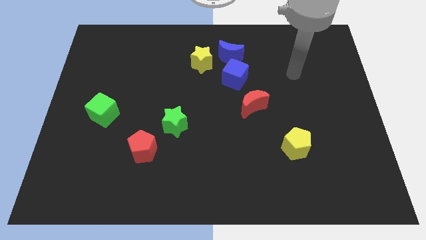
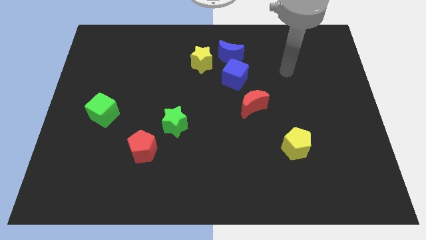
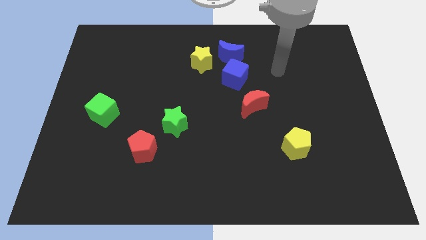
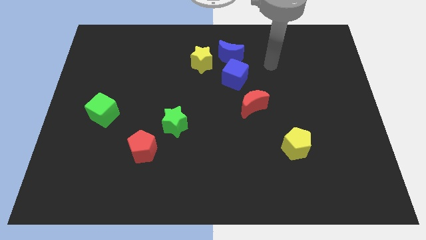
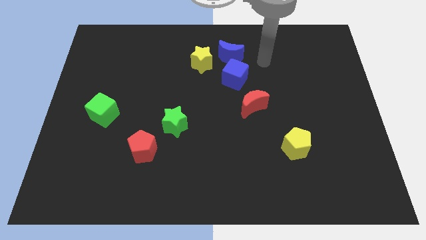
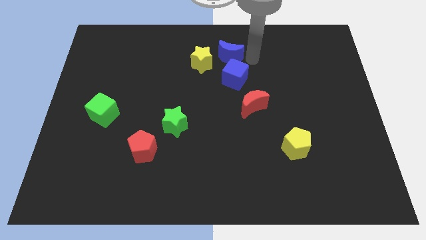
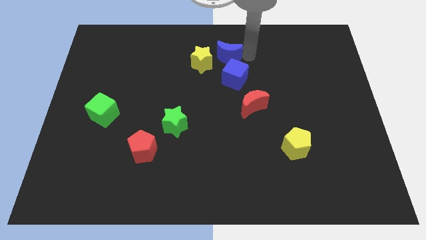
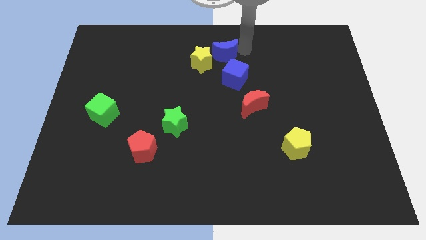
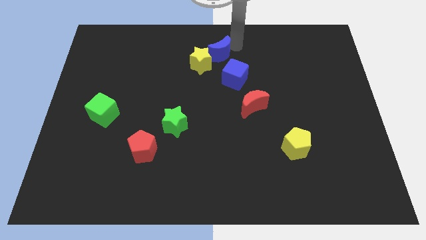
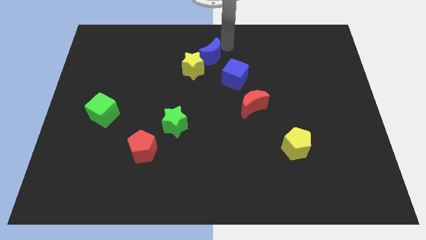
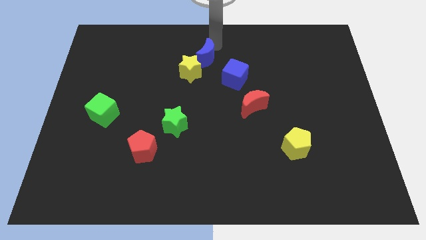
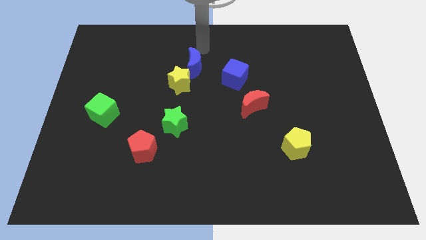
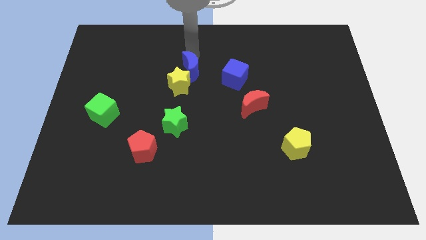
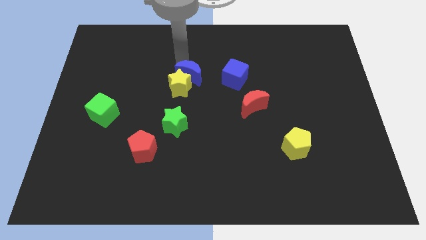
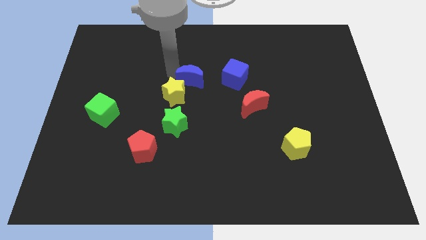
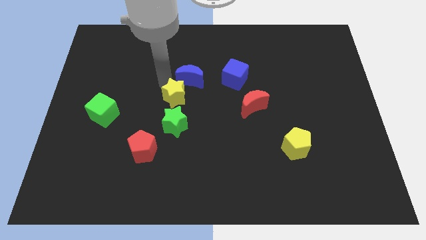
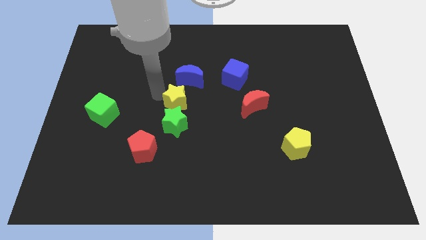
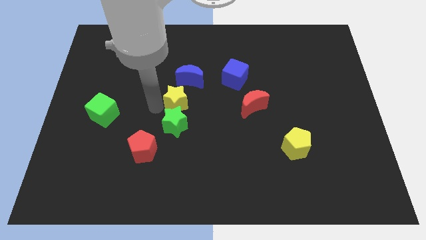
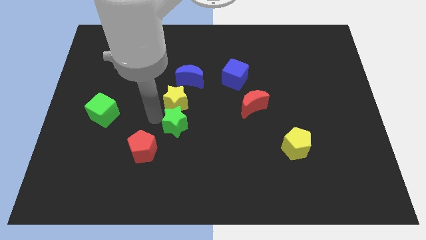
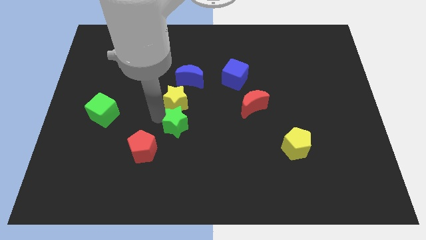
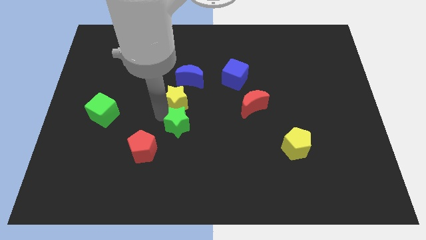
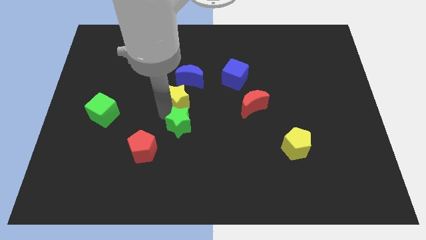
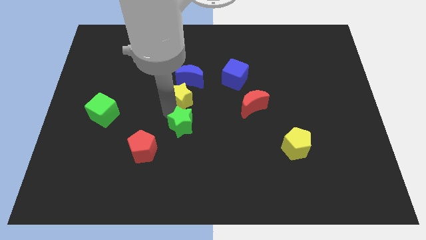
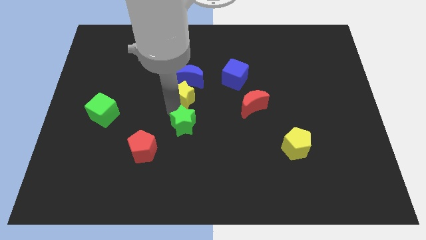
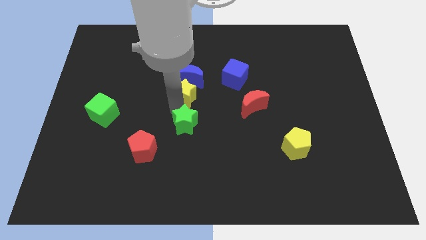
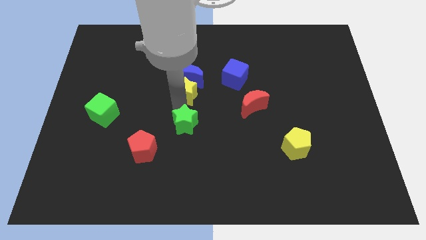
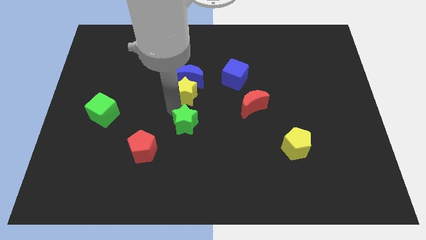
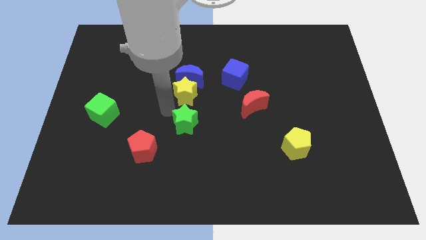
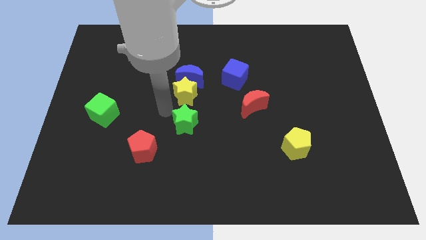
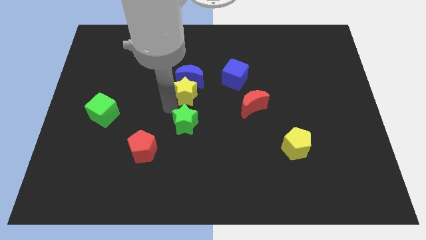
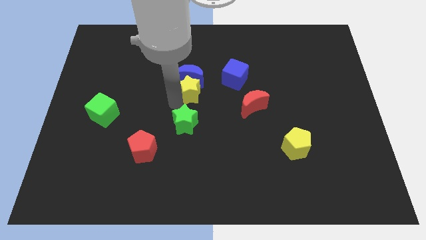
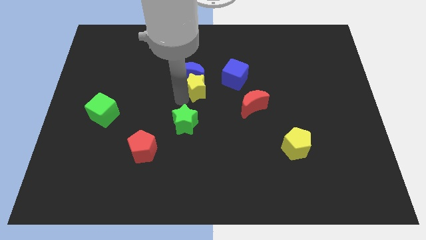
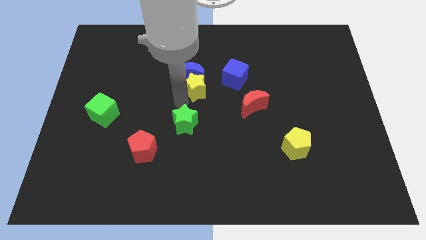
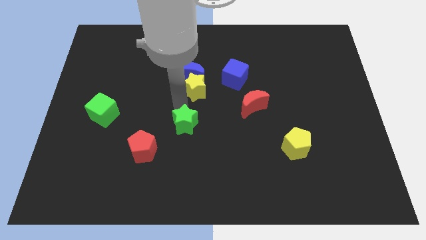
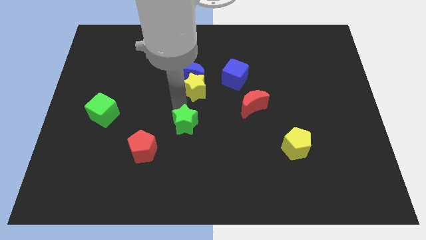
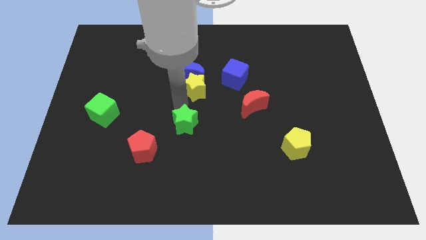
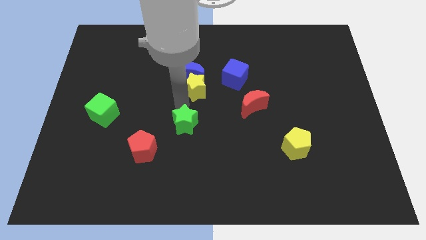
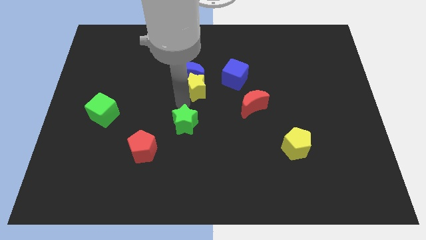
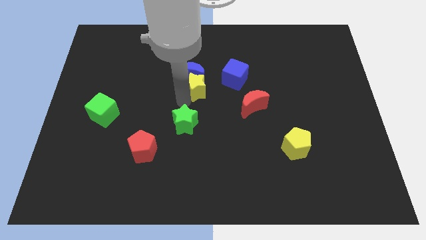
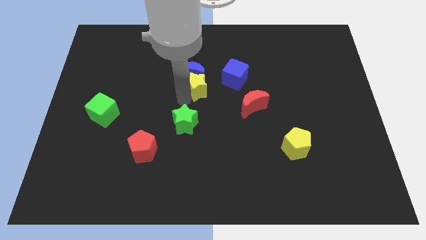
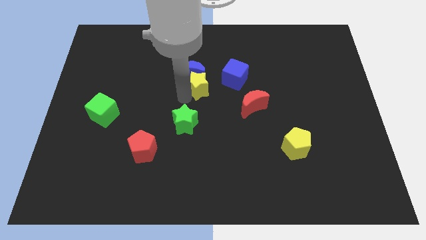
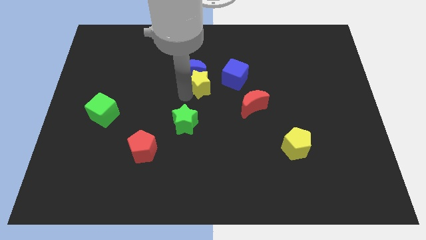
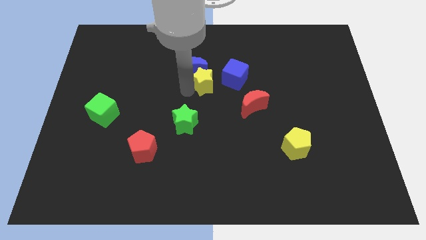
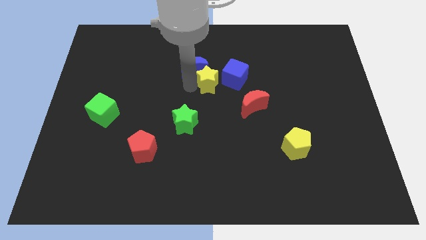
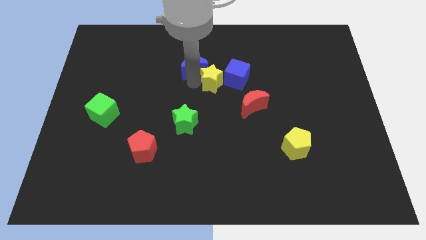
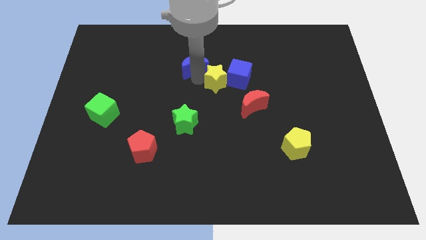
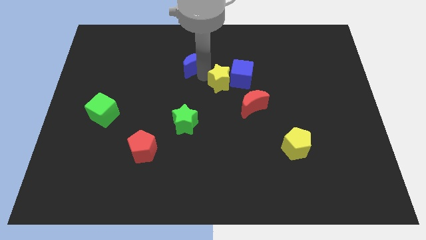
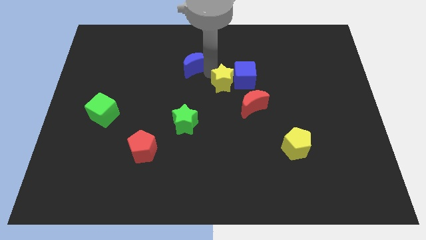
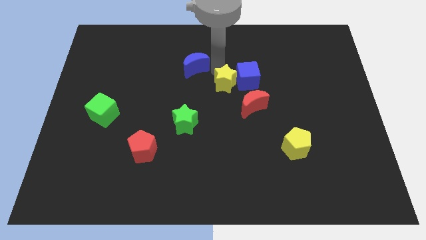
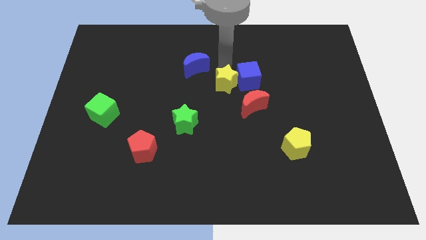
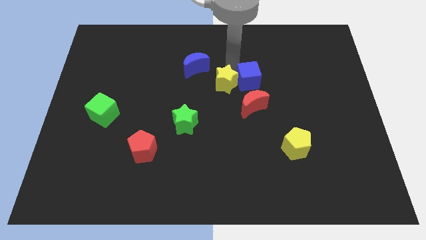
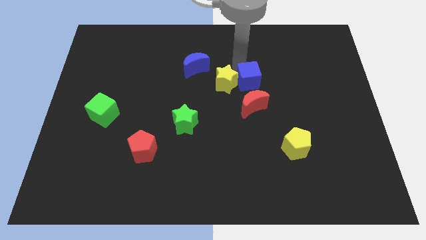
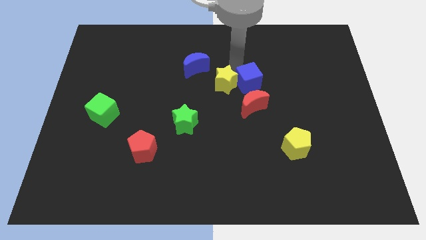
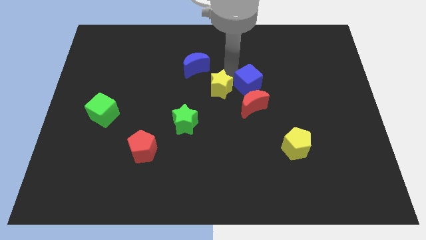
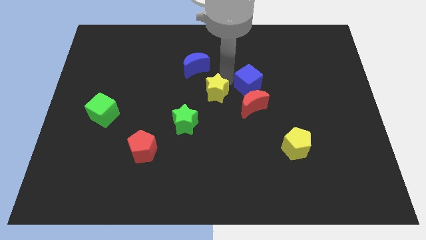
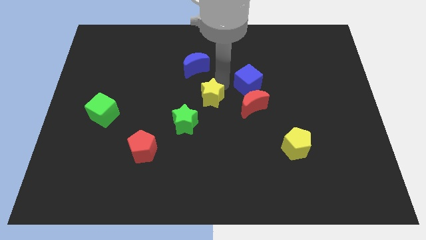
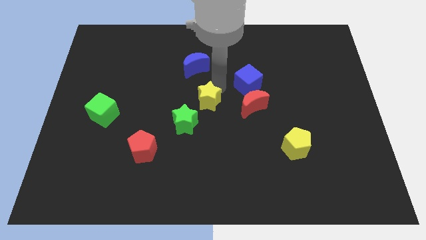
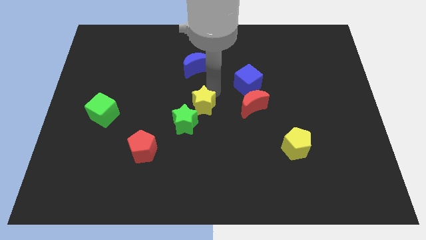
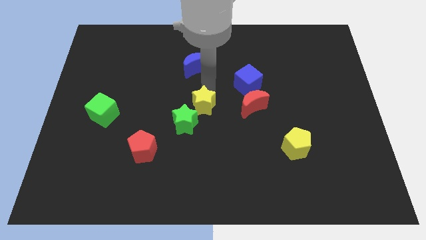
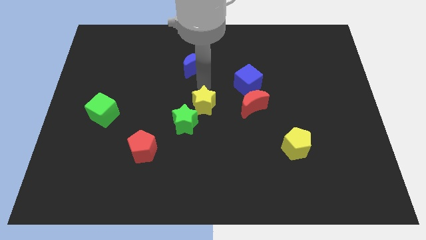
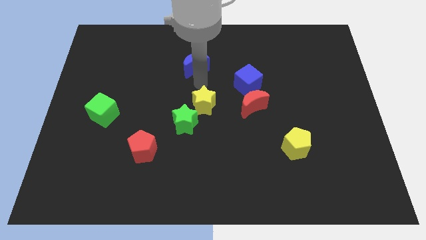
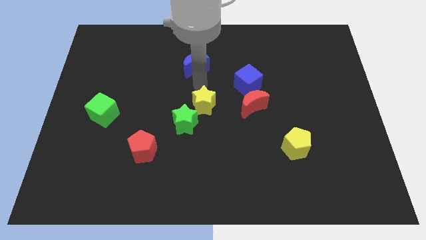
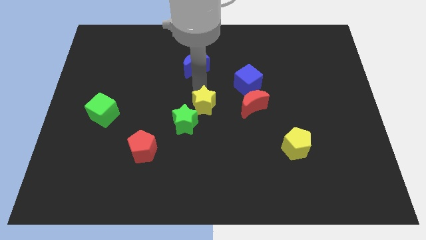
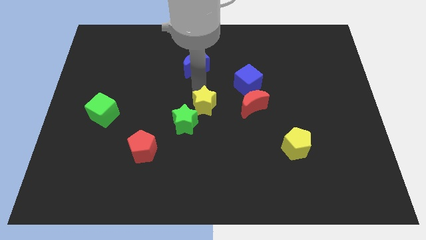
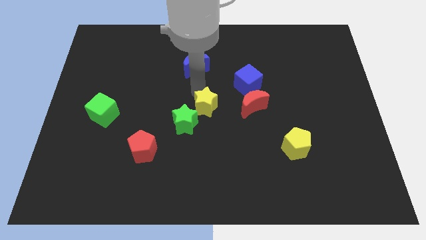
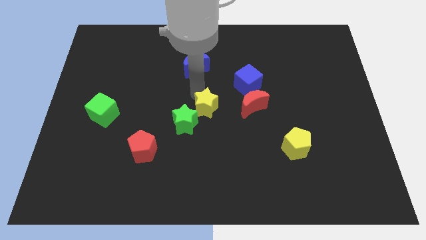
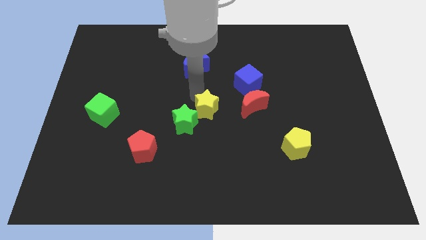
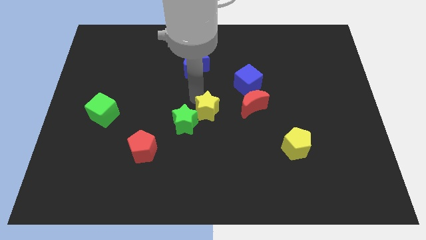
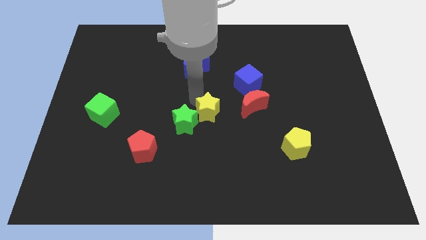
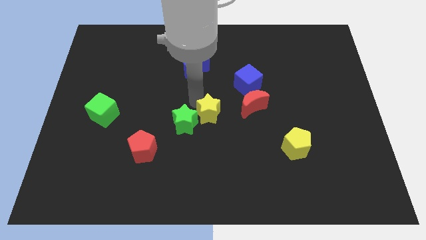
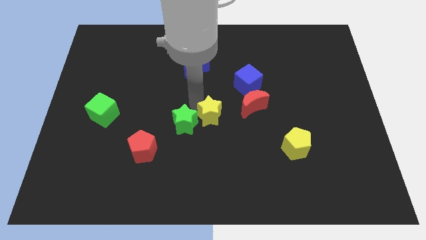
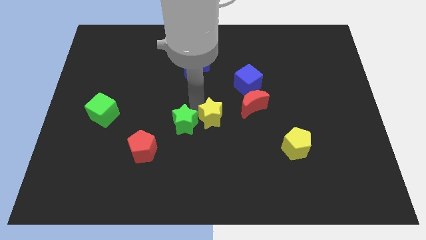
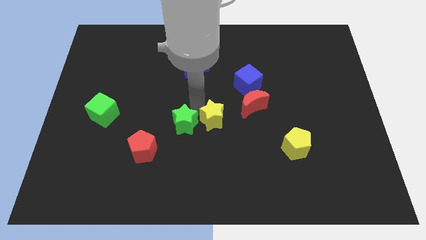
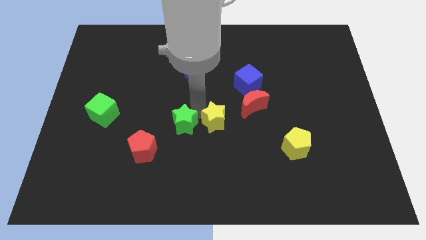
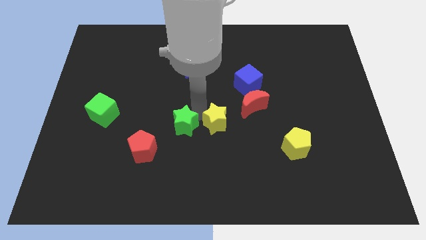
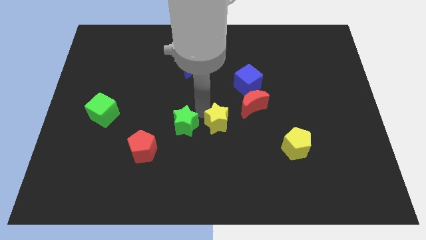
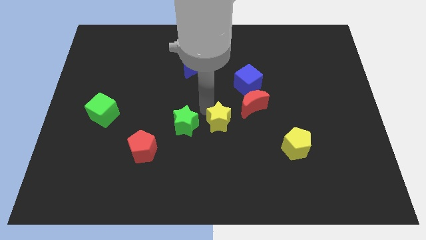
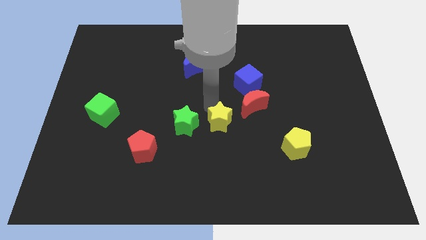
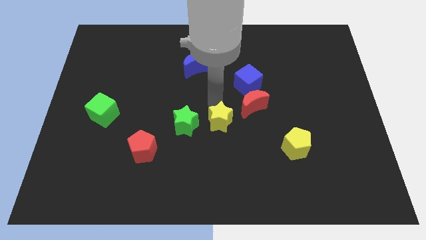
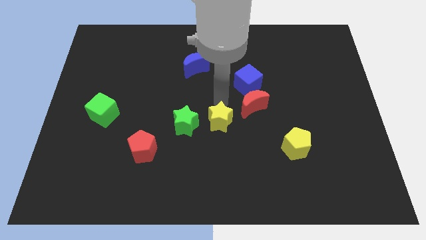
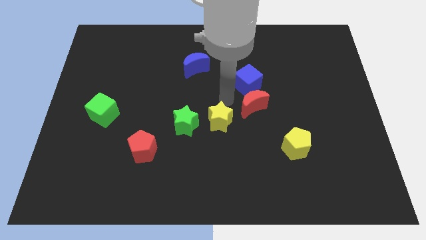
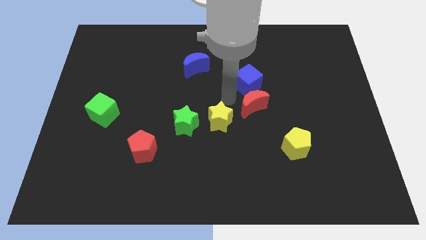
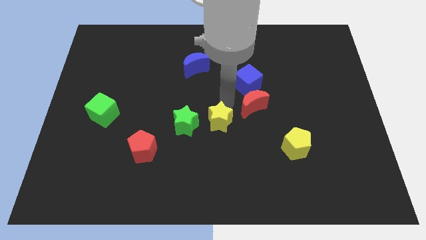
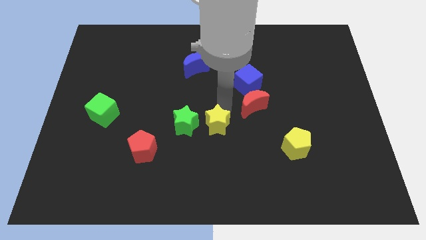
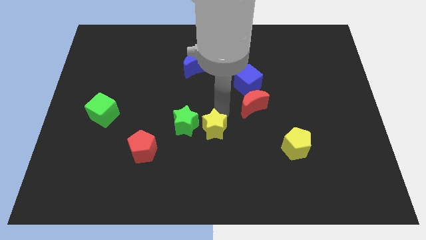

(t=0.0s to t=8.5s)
move the yellow star downwards
